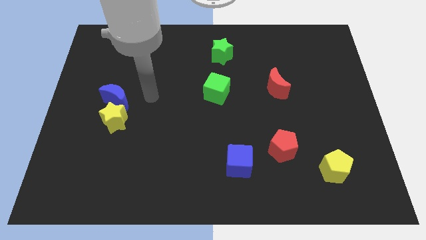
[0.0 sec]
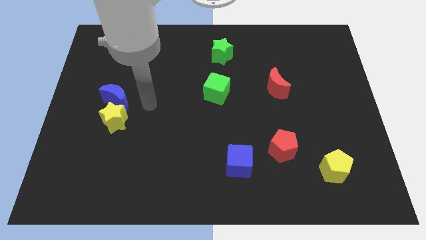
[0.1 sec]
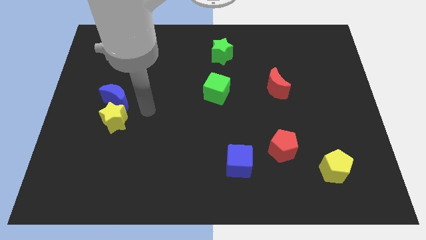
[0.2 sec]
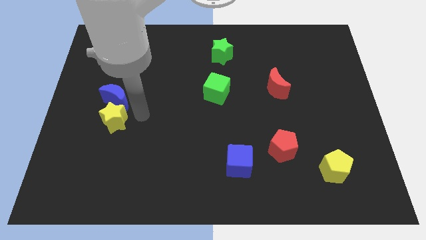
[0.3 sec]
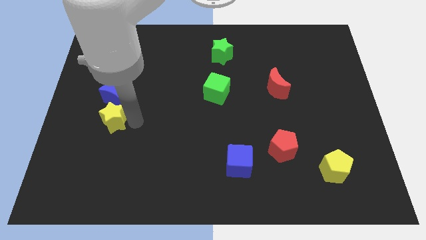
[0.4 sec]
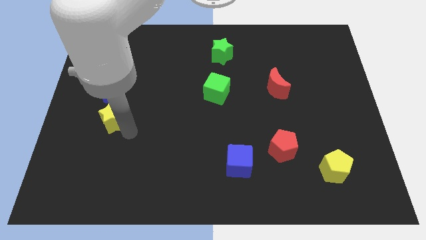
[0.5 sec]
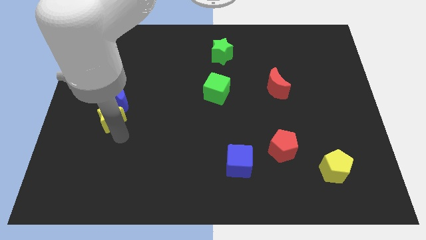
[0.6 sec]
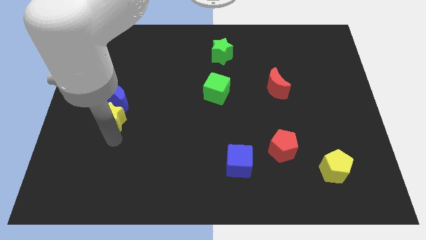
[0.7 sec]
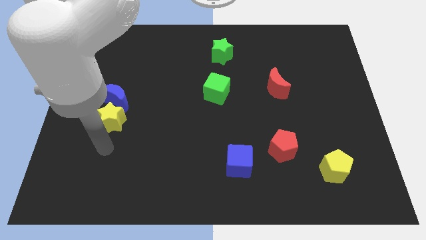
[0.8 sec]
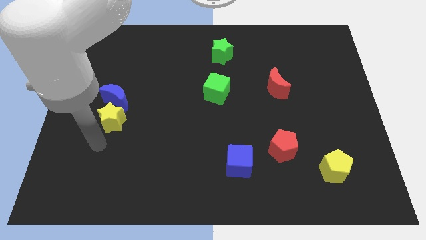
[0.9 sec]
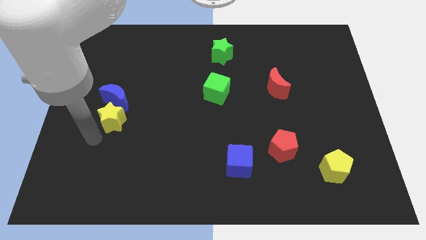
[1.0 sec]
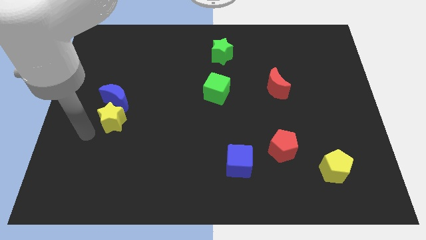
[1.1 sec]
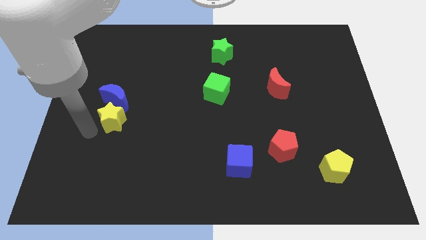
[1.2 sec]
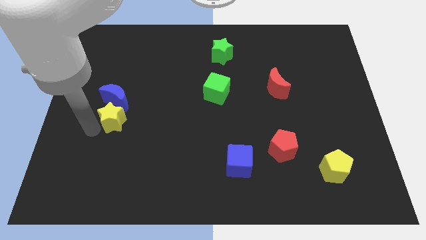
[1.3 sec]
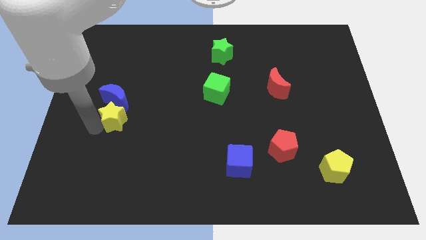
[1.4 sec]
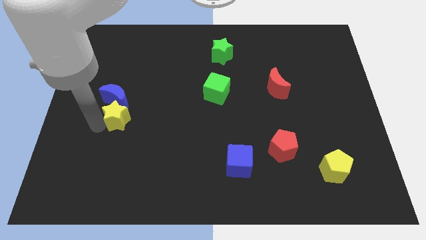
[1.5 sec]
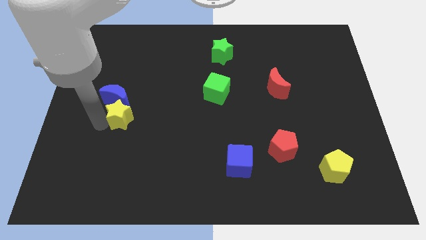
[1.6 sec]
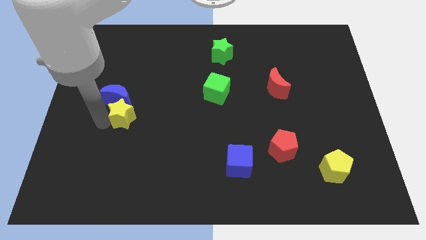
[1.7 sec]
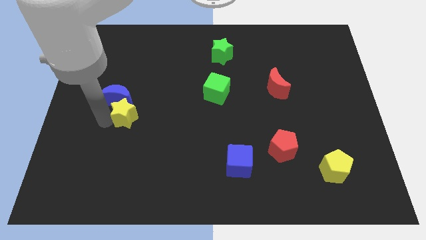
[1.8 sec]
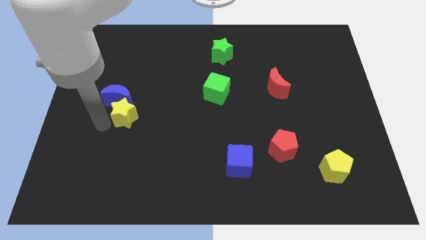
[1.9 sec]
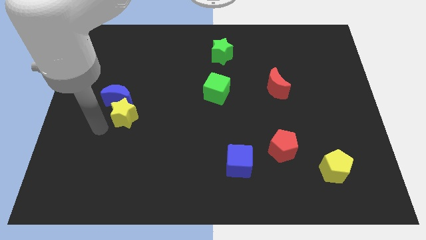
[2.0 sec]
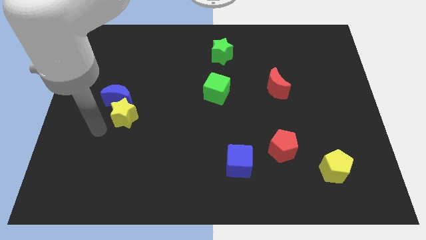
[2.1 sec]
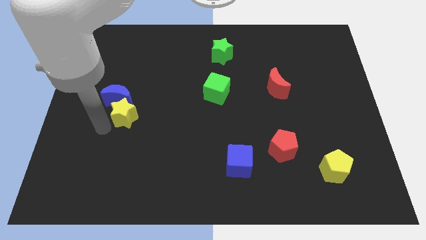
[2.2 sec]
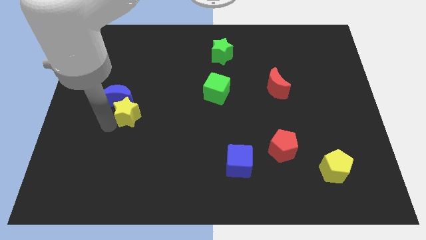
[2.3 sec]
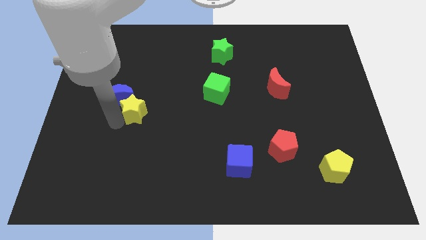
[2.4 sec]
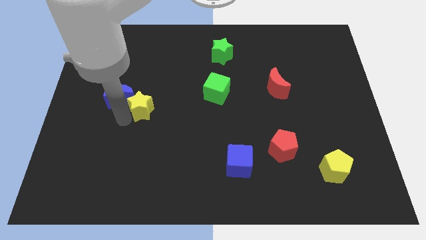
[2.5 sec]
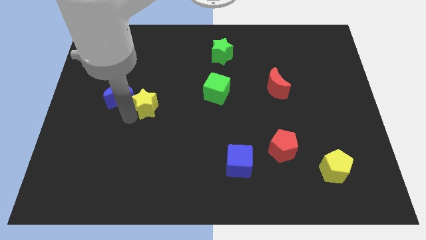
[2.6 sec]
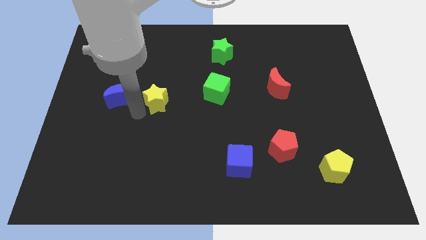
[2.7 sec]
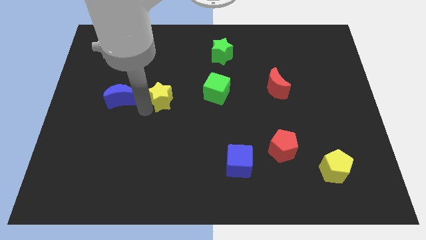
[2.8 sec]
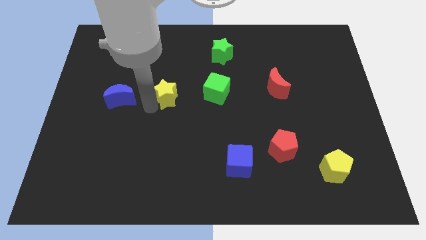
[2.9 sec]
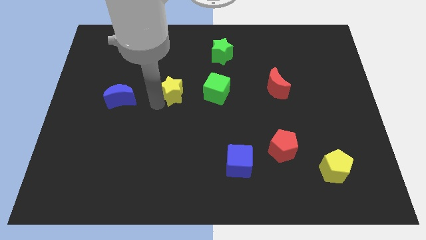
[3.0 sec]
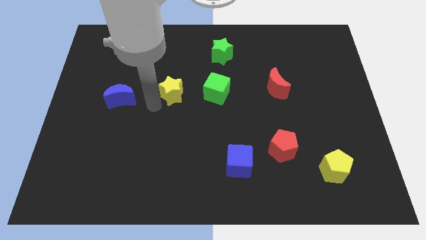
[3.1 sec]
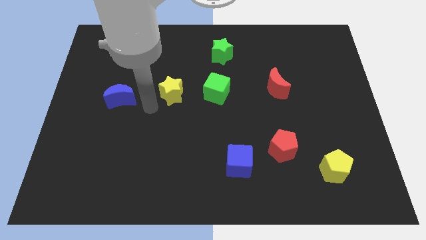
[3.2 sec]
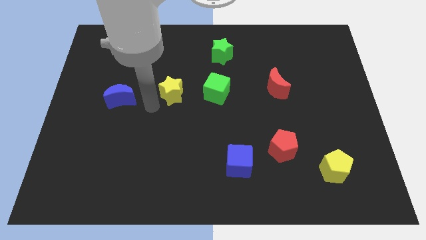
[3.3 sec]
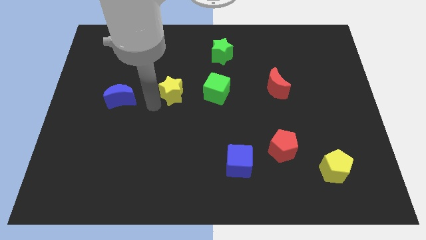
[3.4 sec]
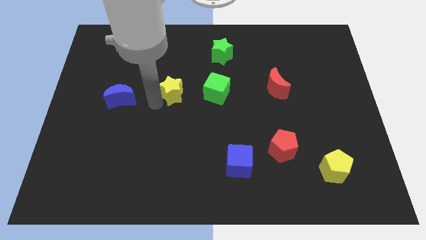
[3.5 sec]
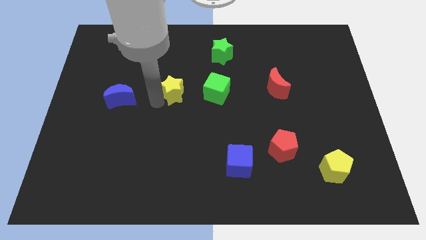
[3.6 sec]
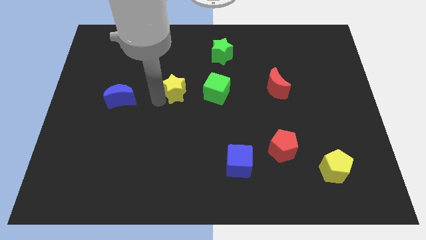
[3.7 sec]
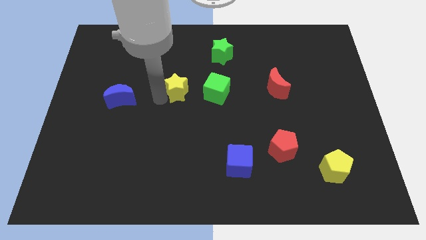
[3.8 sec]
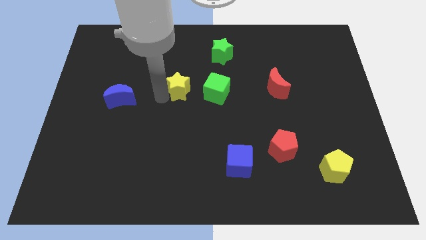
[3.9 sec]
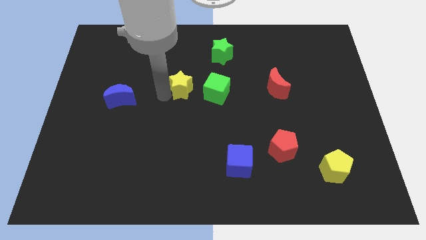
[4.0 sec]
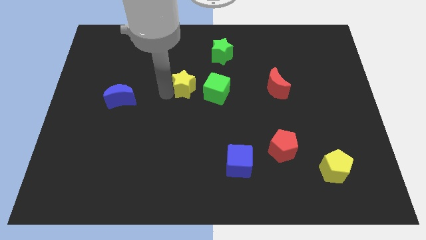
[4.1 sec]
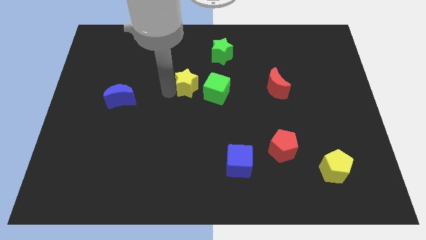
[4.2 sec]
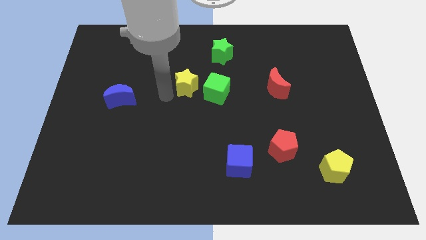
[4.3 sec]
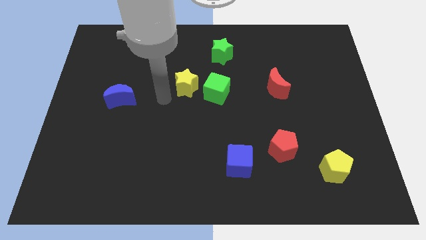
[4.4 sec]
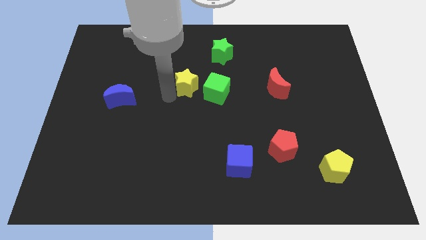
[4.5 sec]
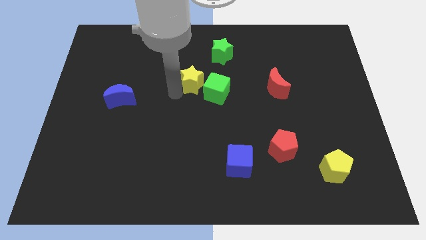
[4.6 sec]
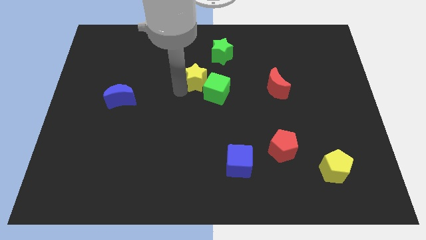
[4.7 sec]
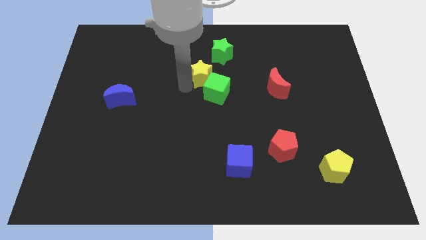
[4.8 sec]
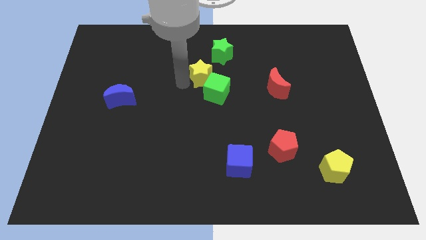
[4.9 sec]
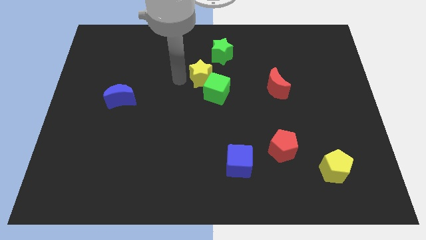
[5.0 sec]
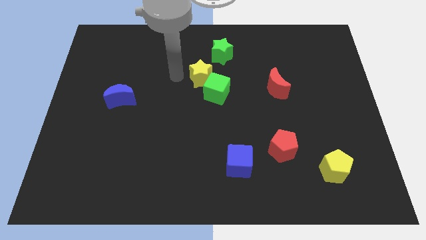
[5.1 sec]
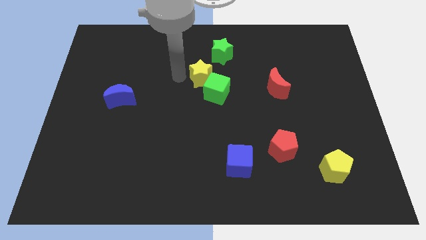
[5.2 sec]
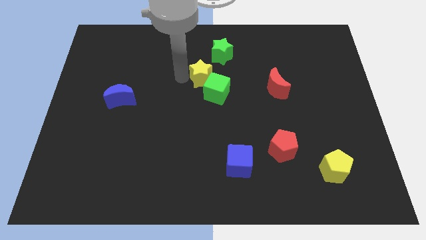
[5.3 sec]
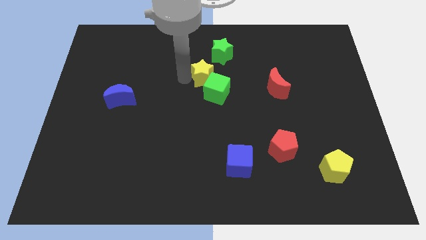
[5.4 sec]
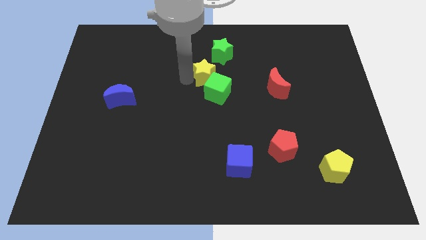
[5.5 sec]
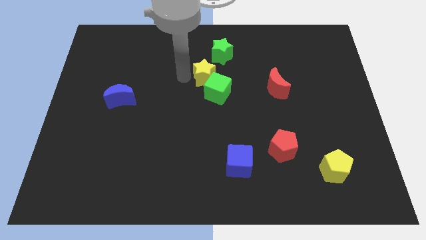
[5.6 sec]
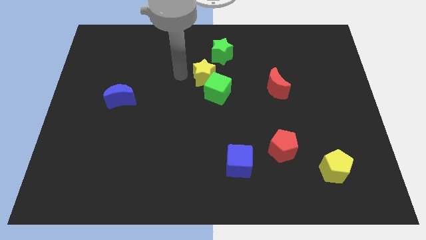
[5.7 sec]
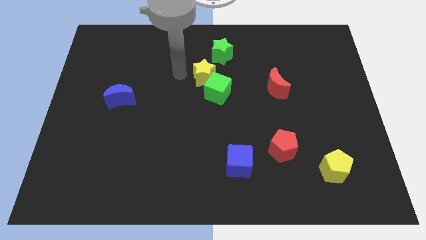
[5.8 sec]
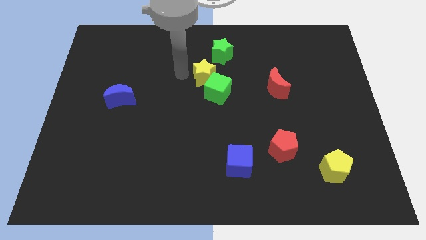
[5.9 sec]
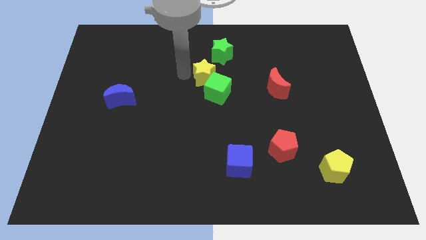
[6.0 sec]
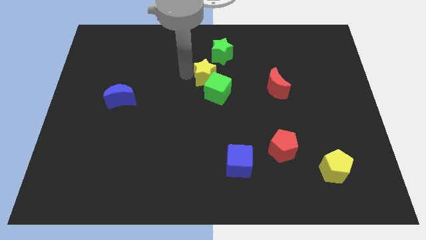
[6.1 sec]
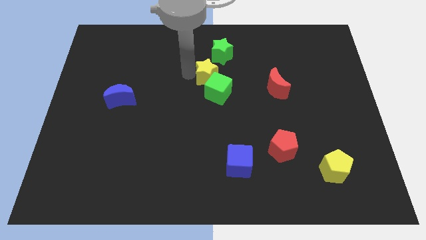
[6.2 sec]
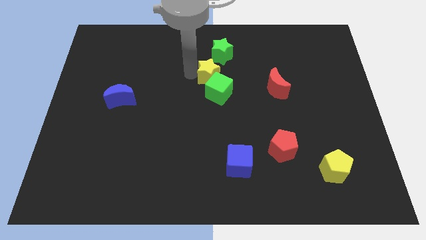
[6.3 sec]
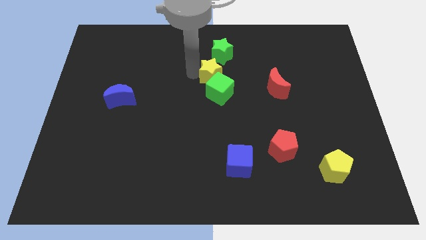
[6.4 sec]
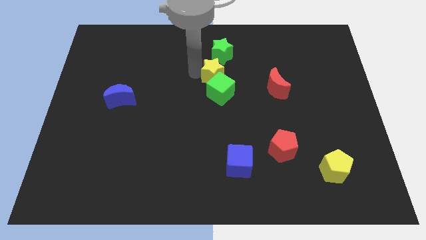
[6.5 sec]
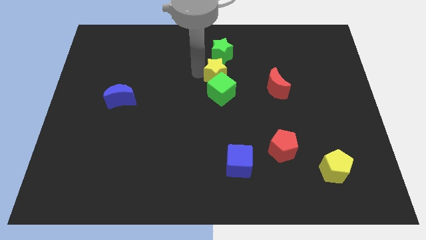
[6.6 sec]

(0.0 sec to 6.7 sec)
put the yellow star to the top right of the green cube

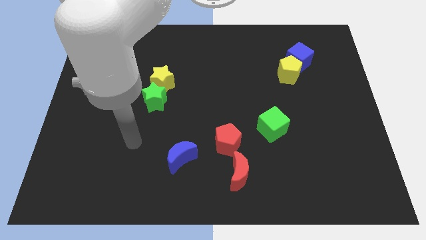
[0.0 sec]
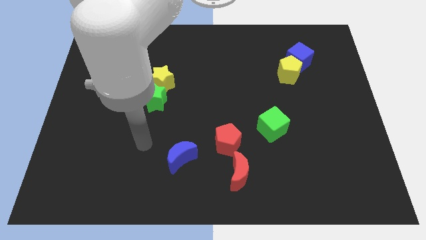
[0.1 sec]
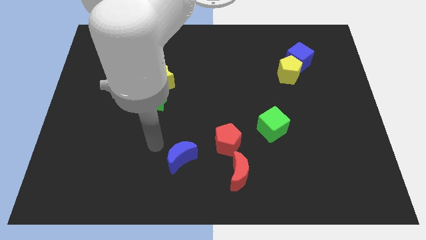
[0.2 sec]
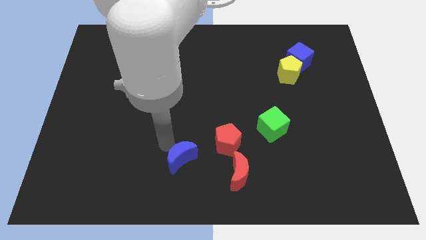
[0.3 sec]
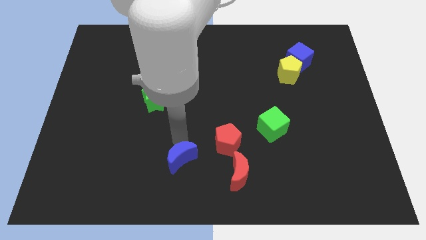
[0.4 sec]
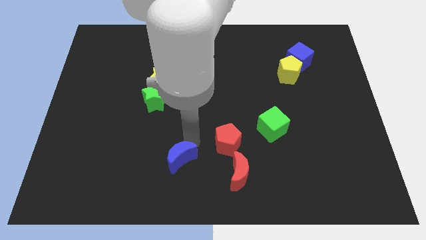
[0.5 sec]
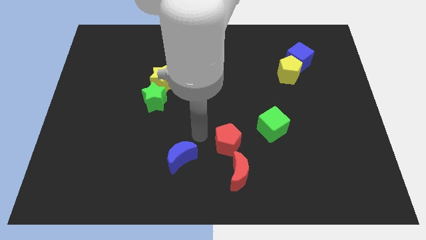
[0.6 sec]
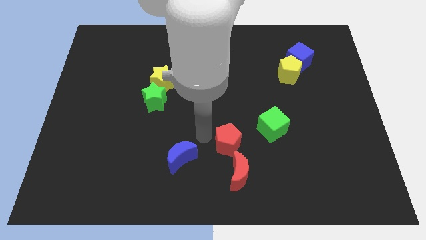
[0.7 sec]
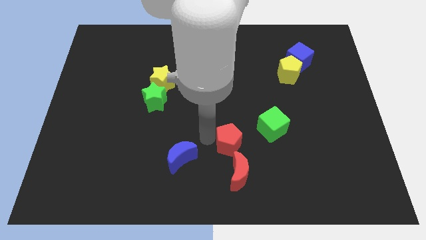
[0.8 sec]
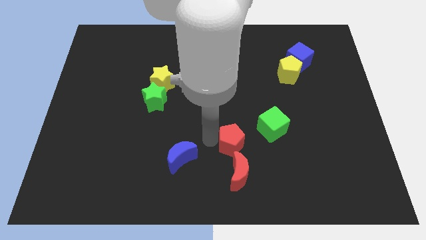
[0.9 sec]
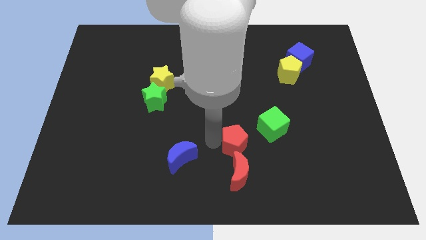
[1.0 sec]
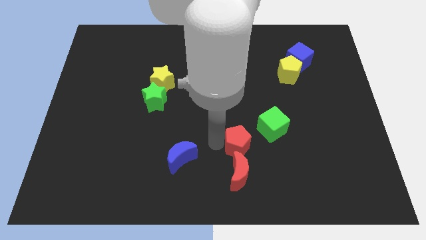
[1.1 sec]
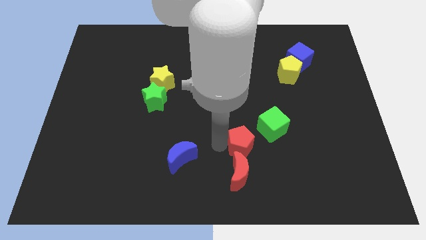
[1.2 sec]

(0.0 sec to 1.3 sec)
move the red pentagon diagonally up and to the right of the red moon
